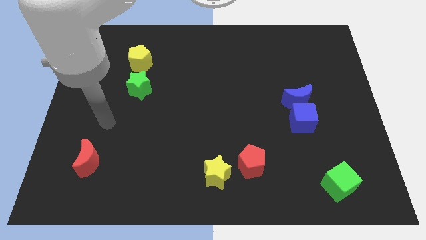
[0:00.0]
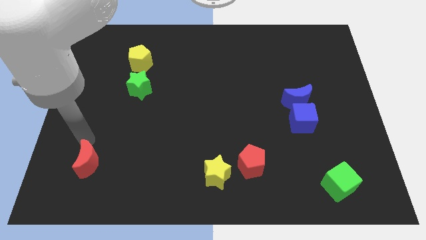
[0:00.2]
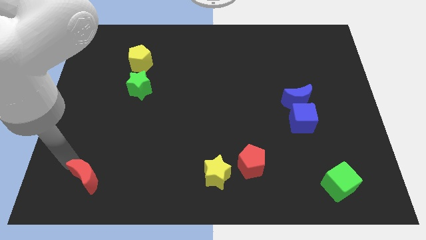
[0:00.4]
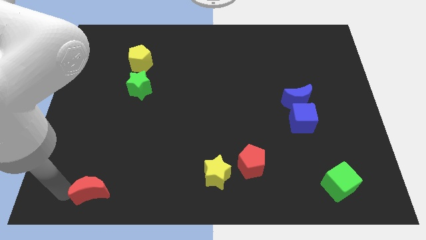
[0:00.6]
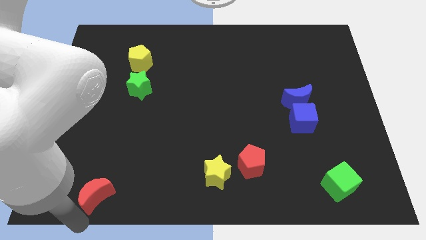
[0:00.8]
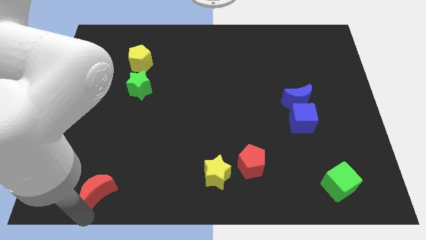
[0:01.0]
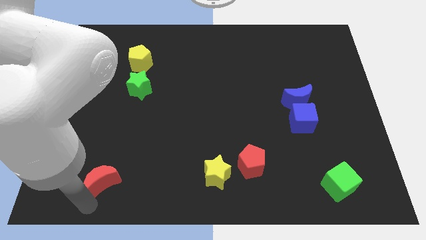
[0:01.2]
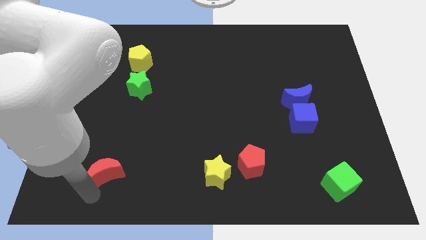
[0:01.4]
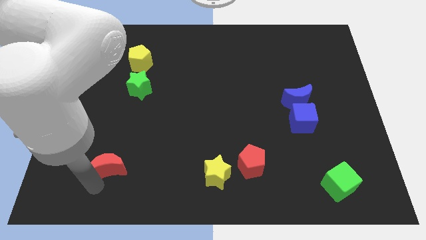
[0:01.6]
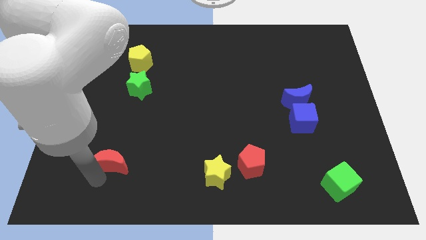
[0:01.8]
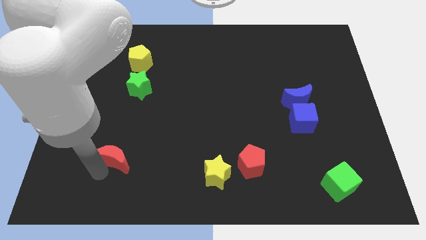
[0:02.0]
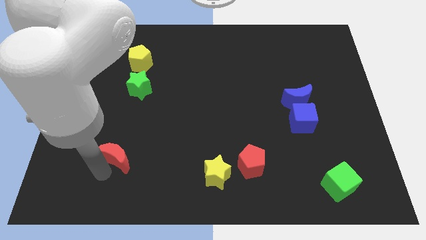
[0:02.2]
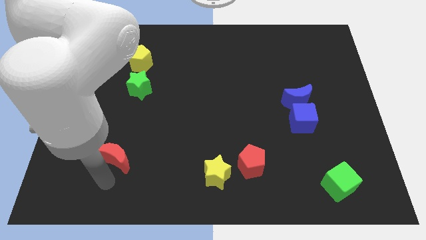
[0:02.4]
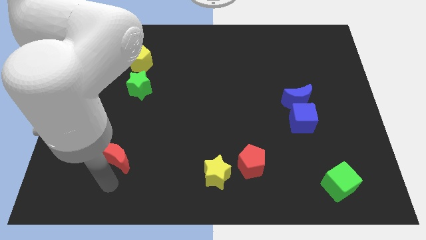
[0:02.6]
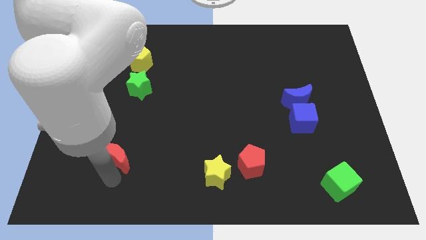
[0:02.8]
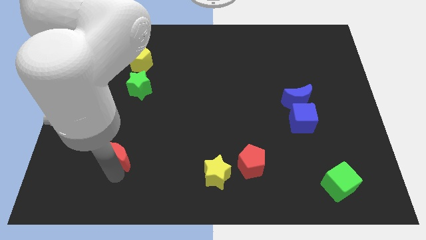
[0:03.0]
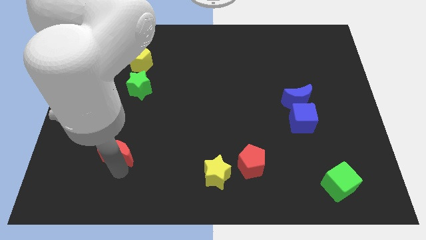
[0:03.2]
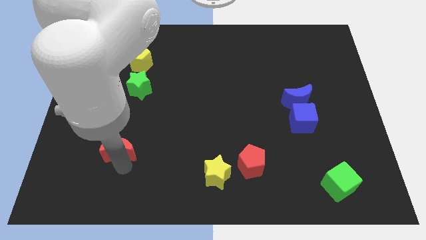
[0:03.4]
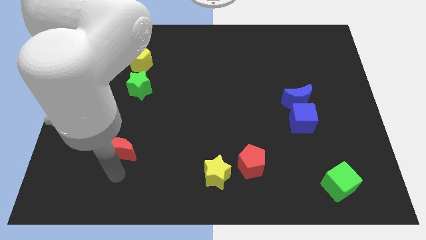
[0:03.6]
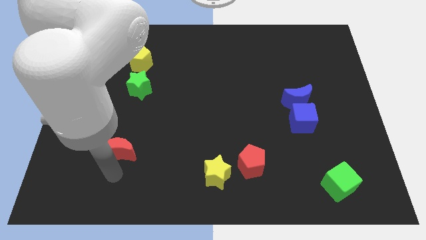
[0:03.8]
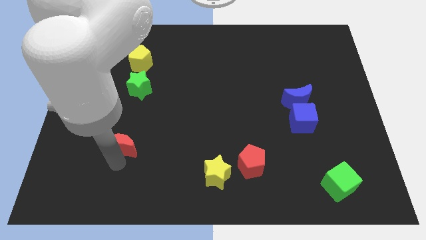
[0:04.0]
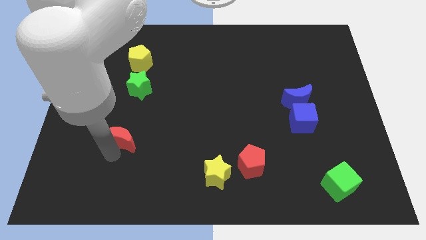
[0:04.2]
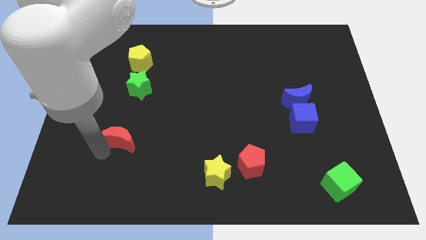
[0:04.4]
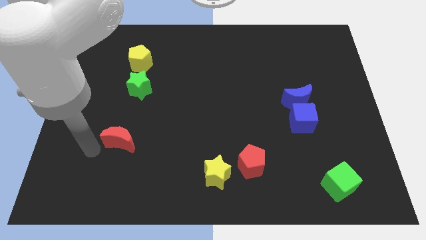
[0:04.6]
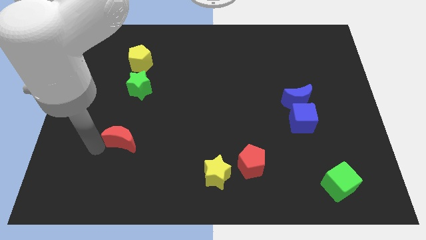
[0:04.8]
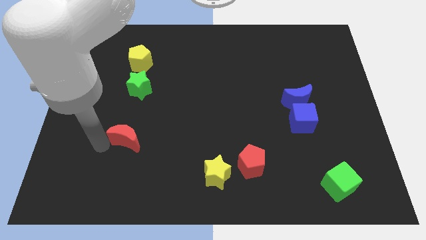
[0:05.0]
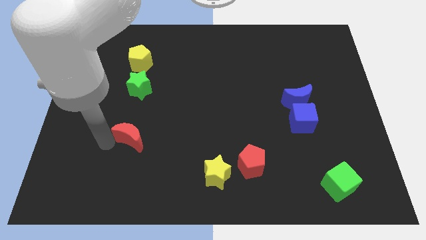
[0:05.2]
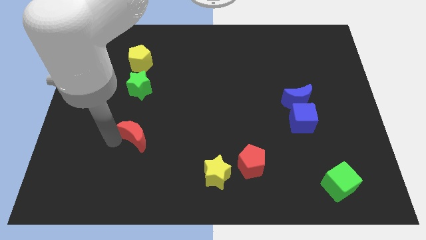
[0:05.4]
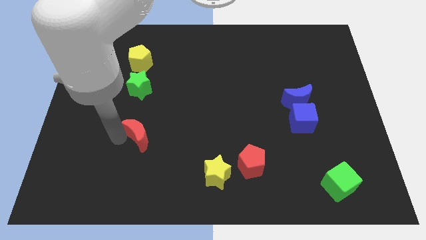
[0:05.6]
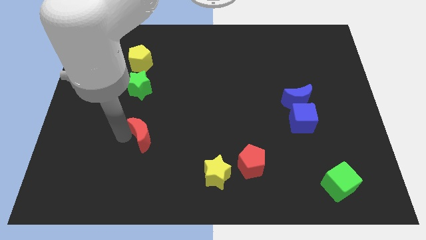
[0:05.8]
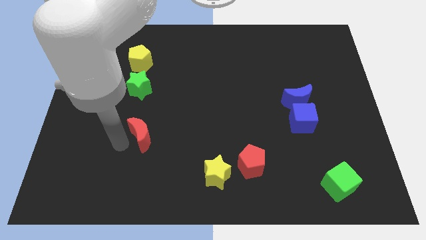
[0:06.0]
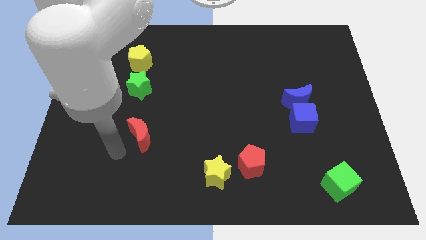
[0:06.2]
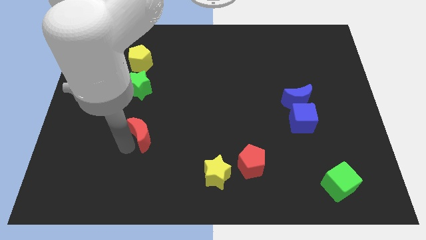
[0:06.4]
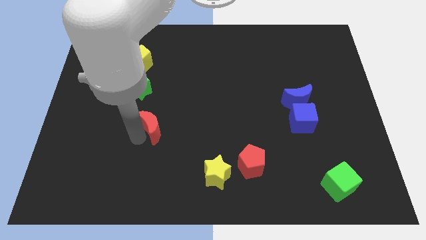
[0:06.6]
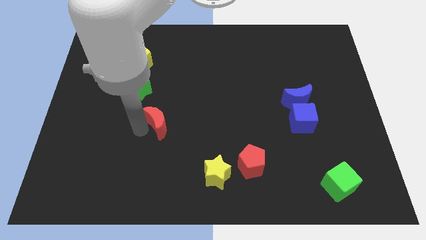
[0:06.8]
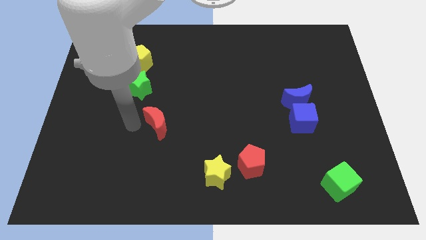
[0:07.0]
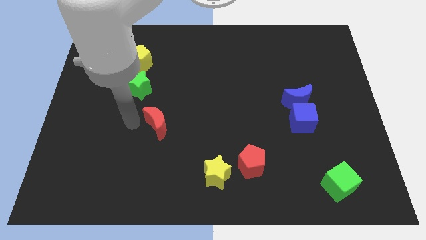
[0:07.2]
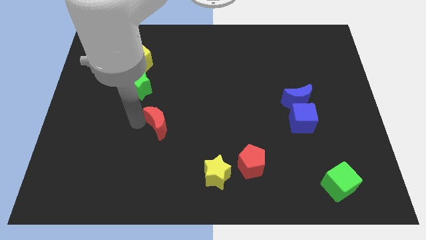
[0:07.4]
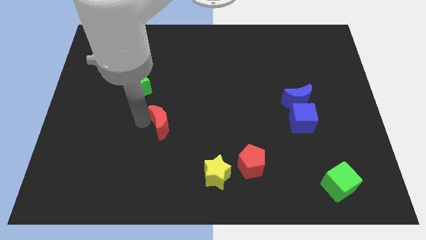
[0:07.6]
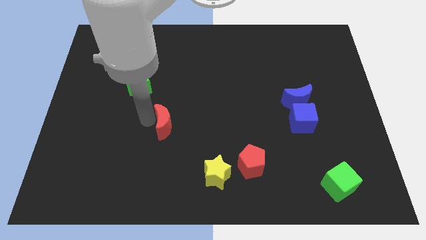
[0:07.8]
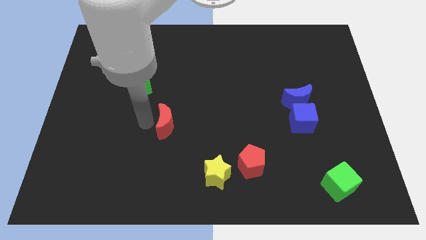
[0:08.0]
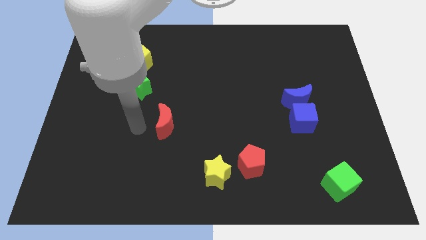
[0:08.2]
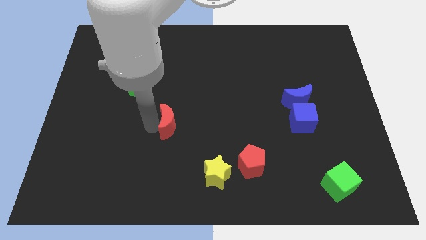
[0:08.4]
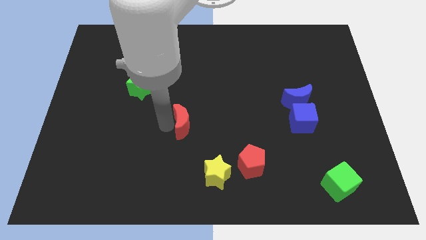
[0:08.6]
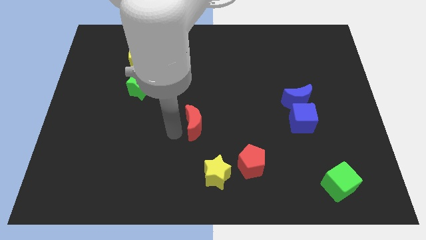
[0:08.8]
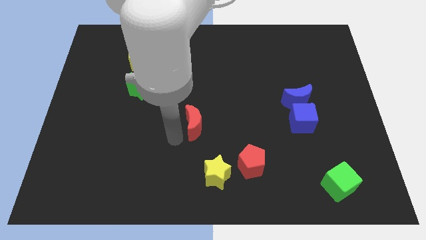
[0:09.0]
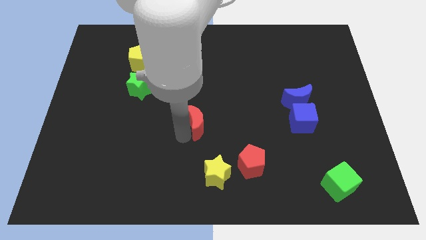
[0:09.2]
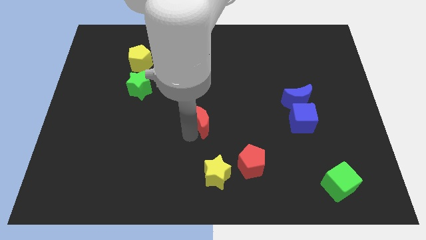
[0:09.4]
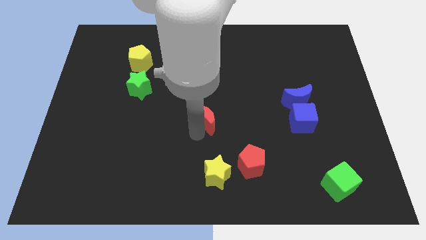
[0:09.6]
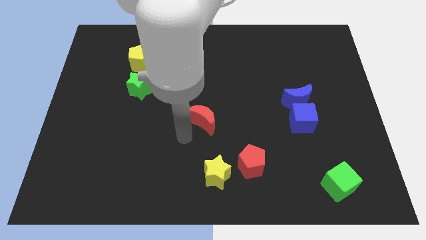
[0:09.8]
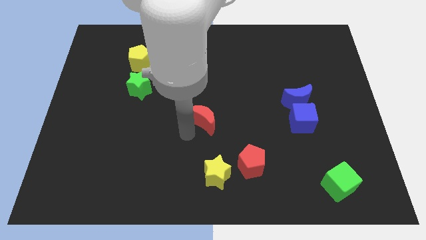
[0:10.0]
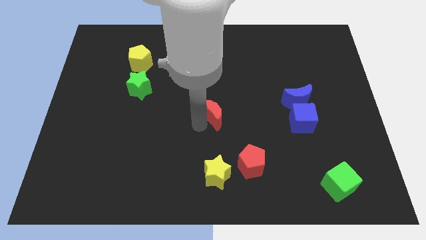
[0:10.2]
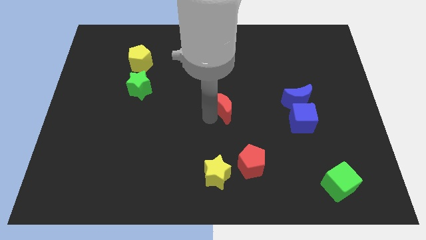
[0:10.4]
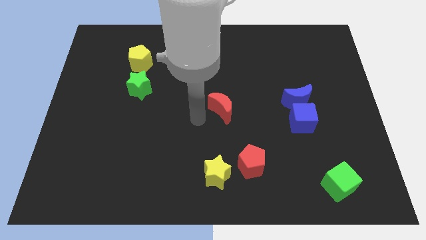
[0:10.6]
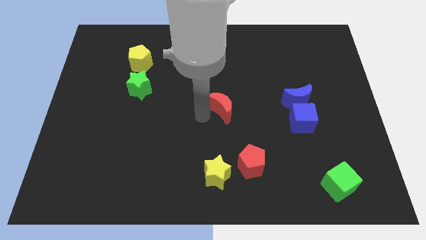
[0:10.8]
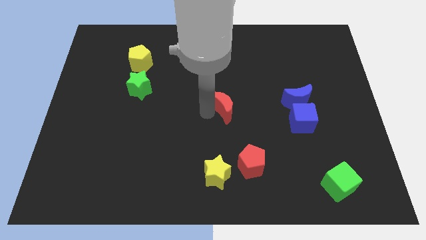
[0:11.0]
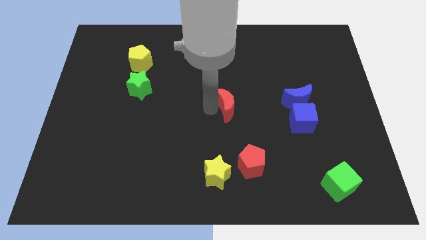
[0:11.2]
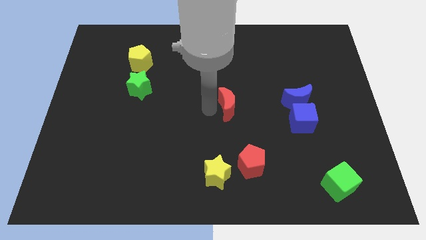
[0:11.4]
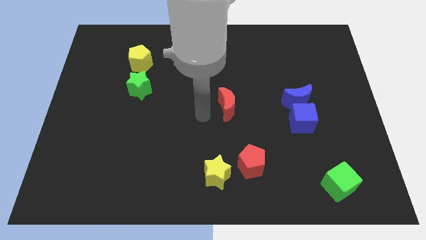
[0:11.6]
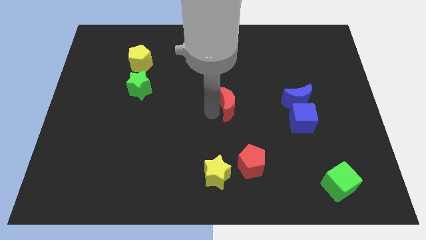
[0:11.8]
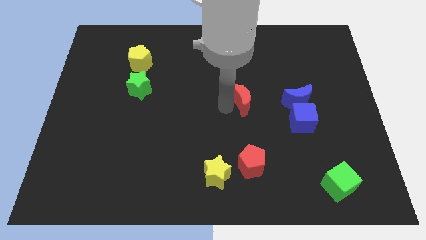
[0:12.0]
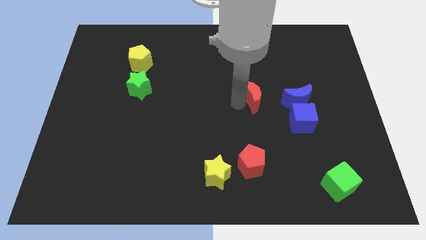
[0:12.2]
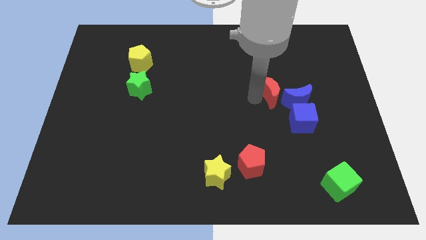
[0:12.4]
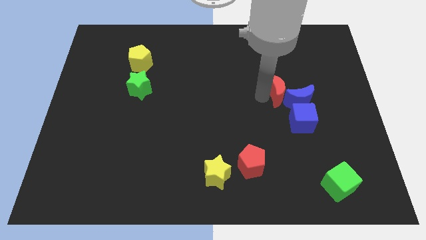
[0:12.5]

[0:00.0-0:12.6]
push the red moon to the top of the blue cube

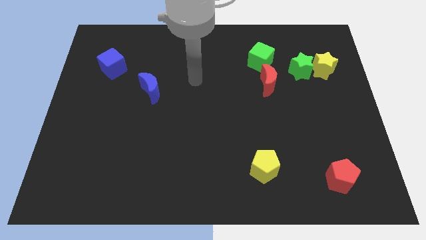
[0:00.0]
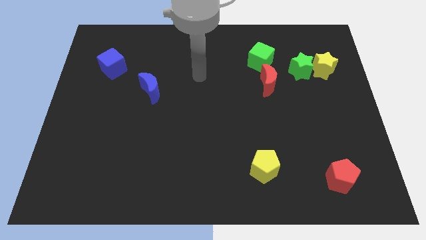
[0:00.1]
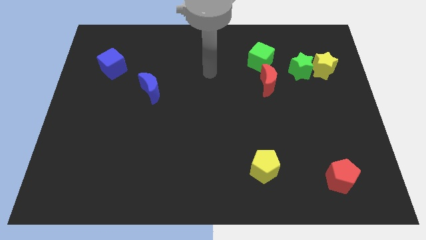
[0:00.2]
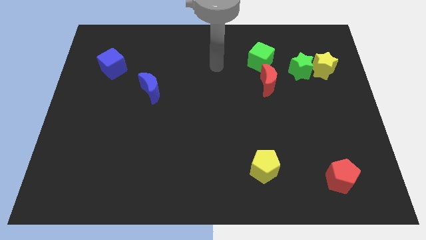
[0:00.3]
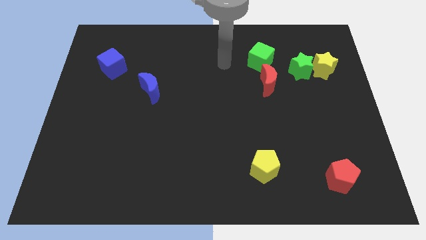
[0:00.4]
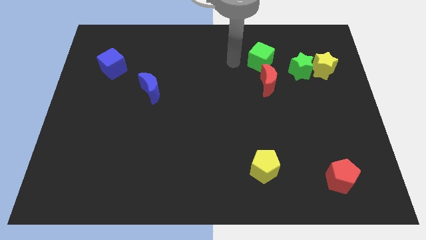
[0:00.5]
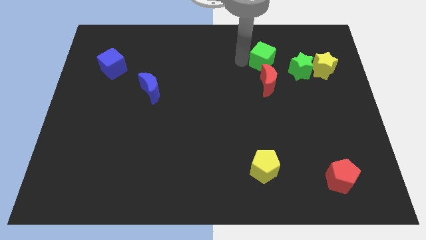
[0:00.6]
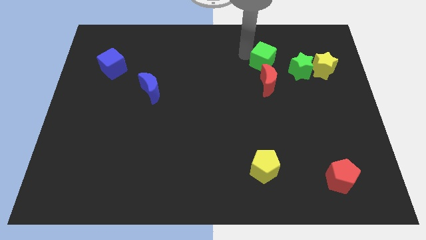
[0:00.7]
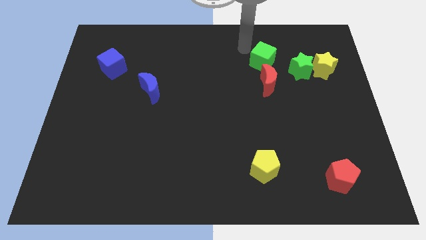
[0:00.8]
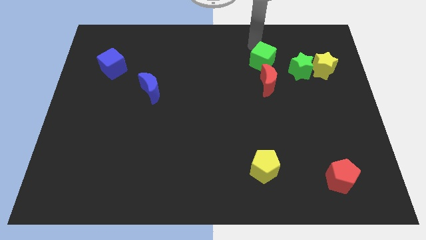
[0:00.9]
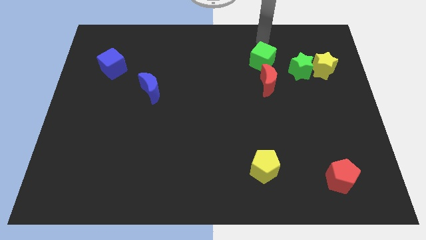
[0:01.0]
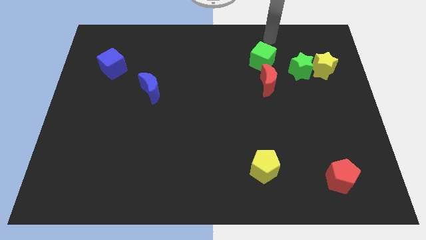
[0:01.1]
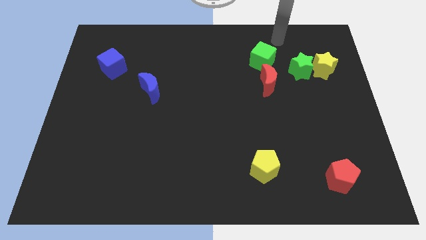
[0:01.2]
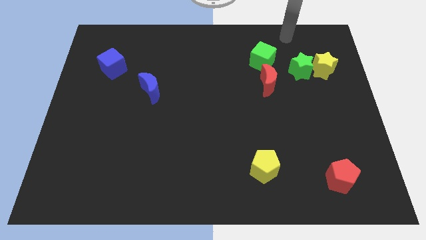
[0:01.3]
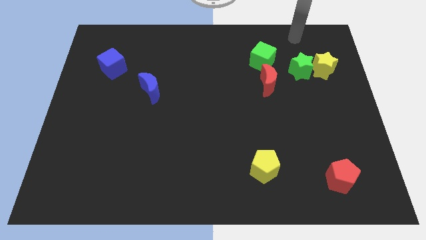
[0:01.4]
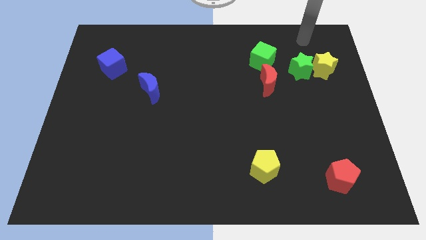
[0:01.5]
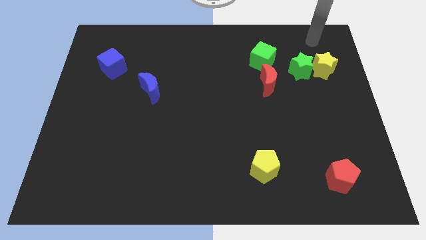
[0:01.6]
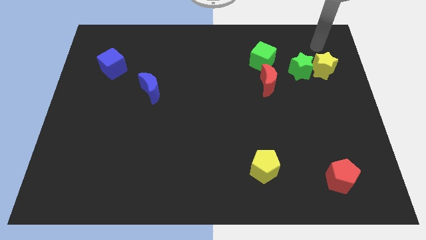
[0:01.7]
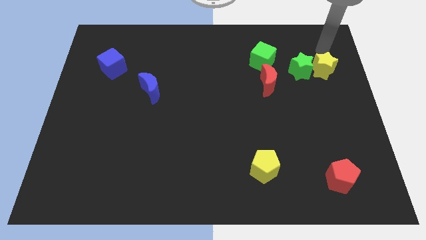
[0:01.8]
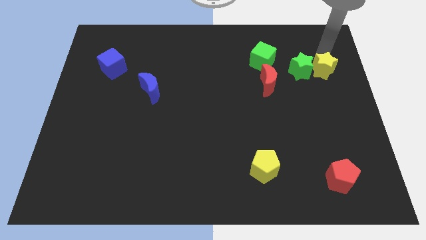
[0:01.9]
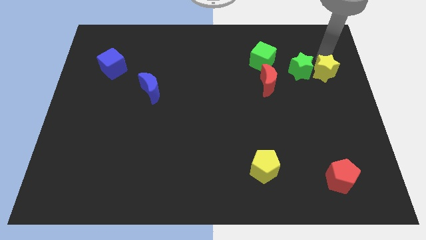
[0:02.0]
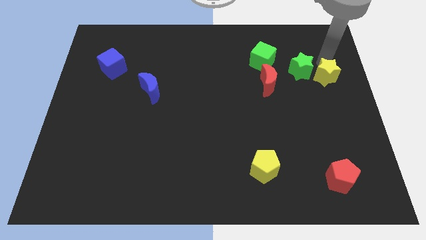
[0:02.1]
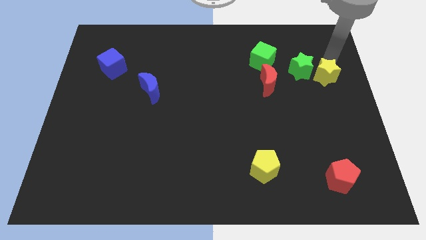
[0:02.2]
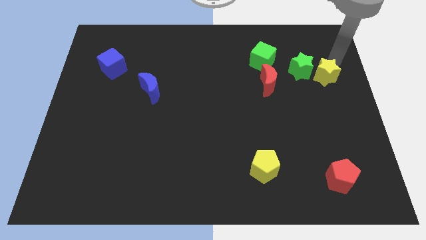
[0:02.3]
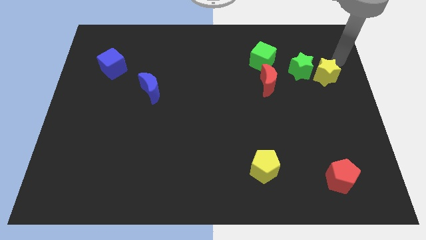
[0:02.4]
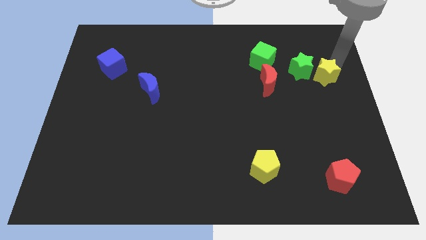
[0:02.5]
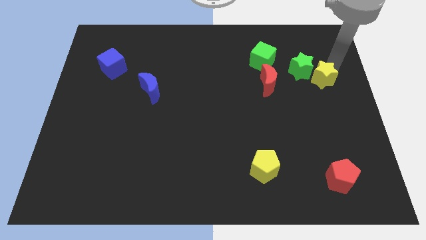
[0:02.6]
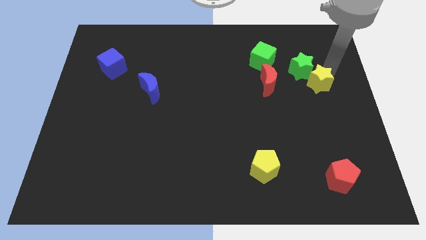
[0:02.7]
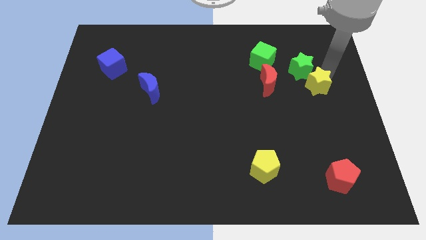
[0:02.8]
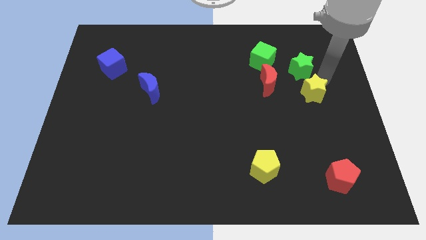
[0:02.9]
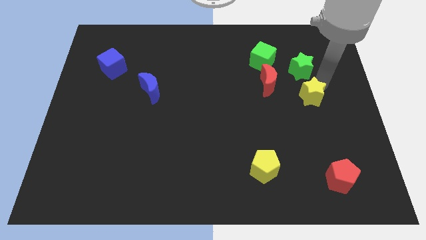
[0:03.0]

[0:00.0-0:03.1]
push the yellow star diagonally down and to the right of the red moon
